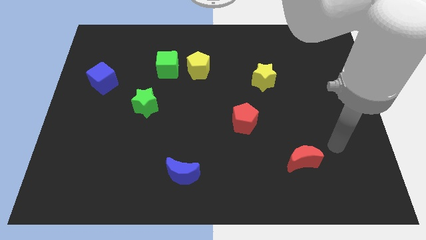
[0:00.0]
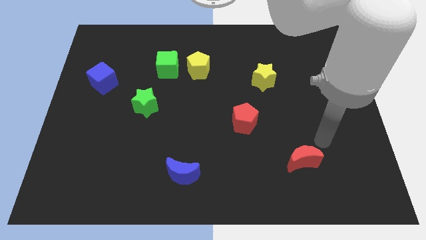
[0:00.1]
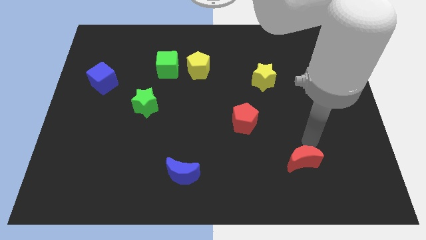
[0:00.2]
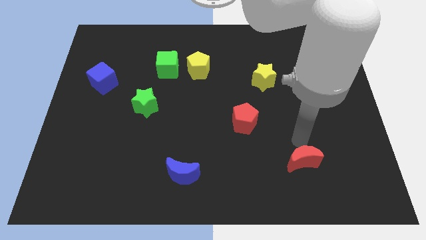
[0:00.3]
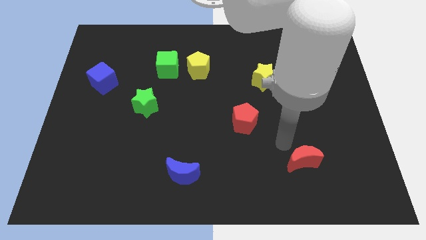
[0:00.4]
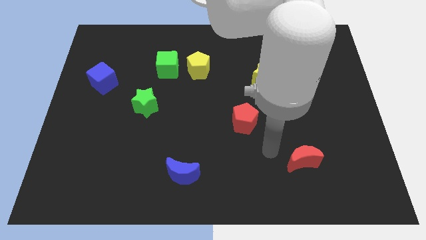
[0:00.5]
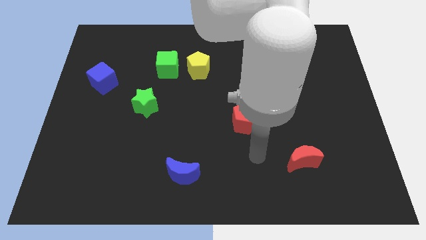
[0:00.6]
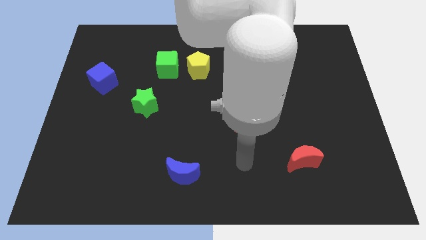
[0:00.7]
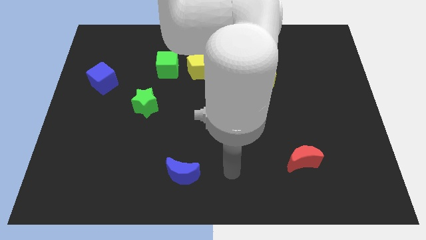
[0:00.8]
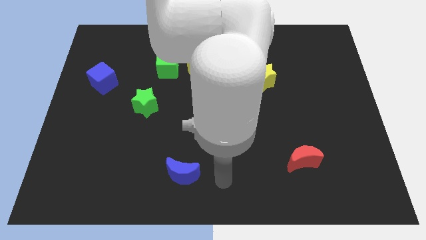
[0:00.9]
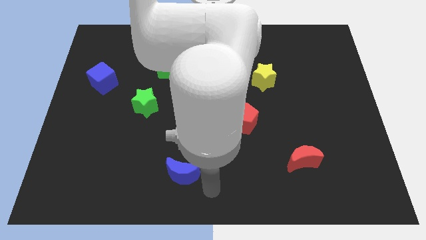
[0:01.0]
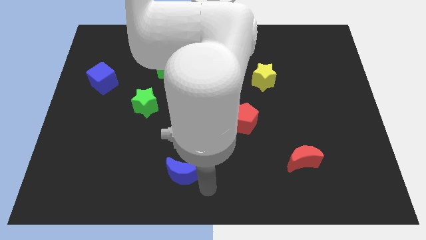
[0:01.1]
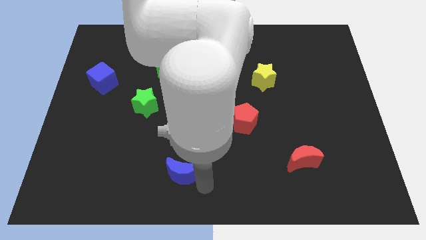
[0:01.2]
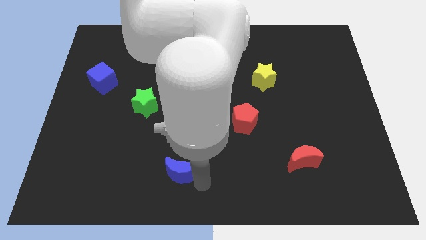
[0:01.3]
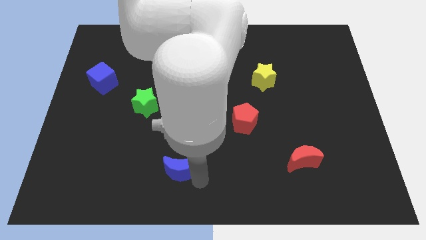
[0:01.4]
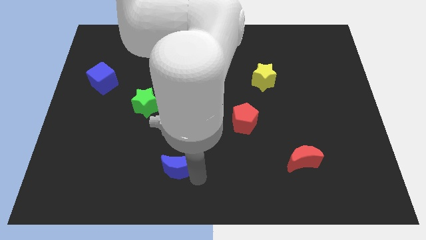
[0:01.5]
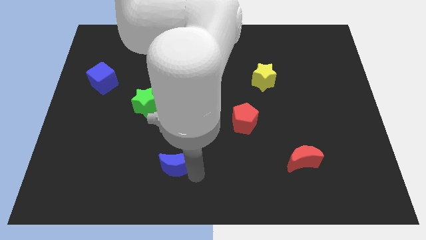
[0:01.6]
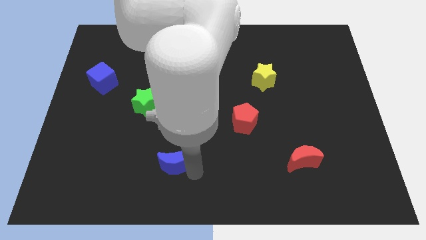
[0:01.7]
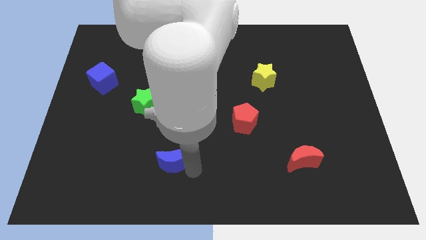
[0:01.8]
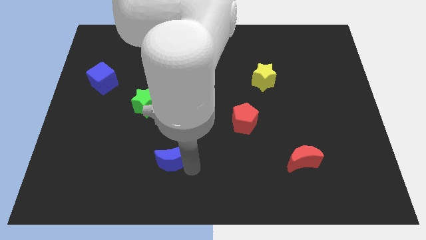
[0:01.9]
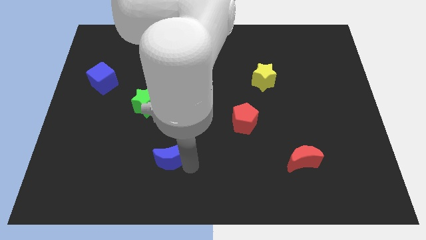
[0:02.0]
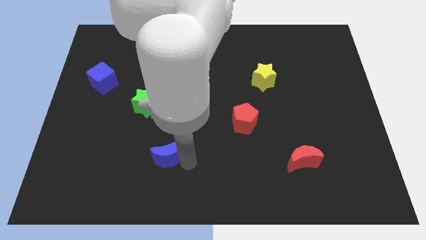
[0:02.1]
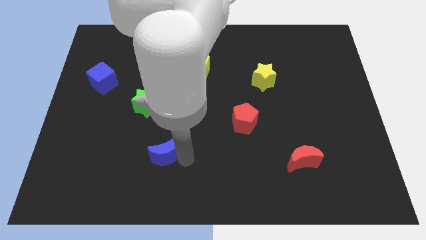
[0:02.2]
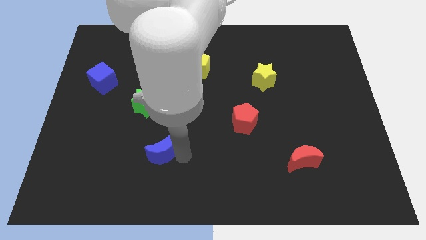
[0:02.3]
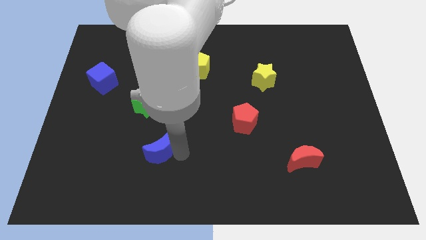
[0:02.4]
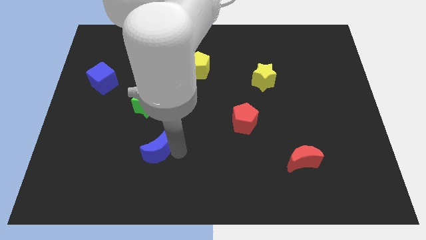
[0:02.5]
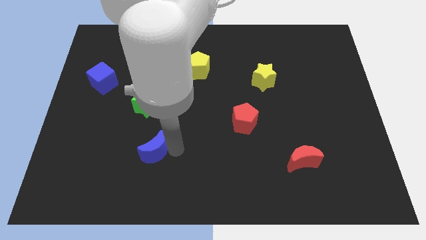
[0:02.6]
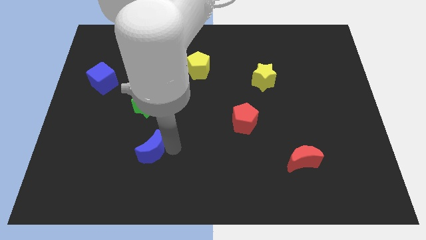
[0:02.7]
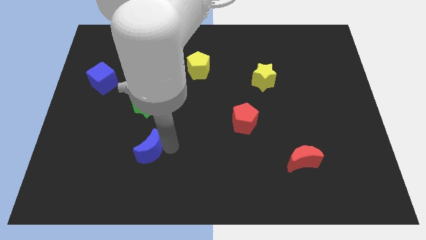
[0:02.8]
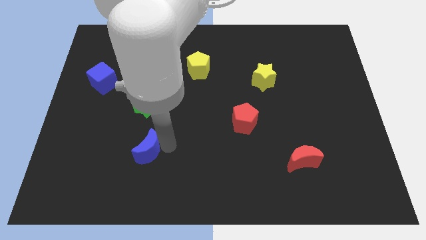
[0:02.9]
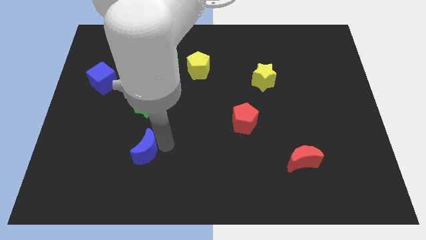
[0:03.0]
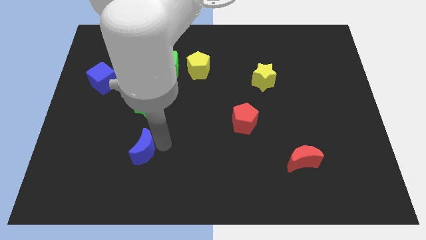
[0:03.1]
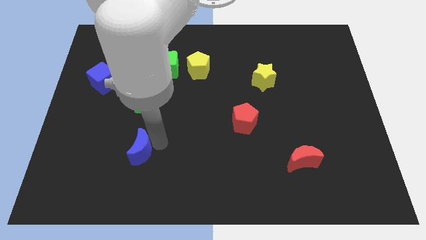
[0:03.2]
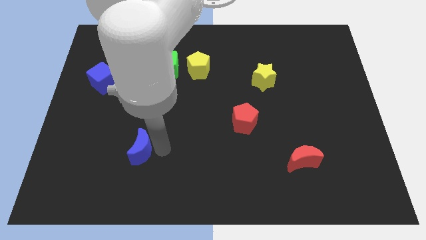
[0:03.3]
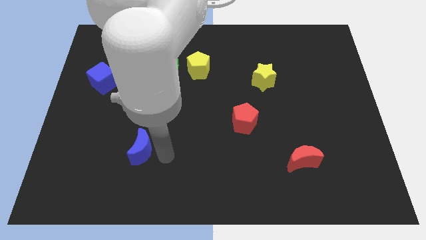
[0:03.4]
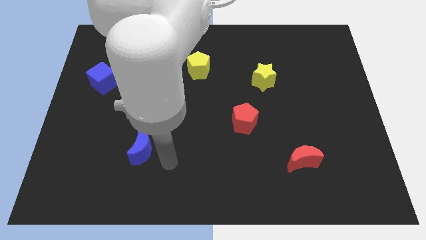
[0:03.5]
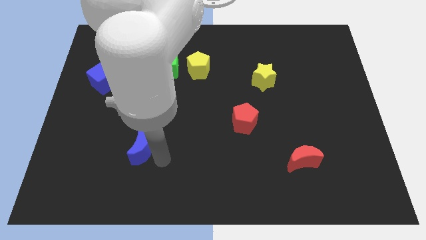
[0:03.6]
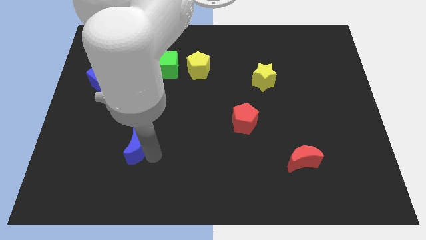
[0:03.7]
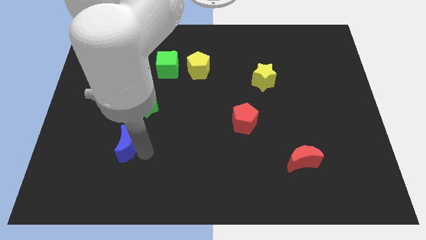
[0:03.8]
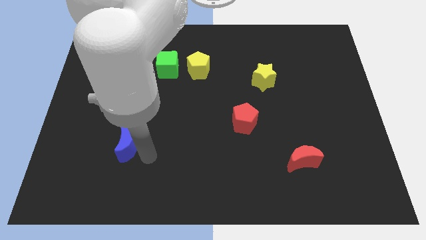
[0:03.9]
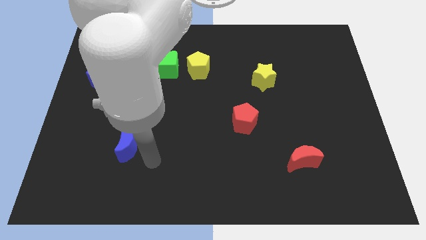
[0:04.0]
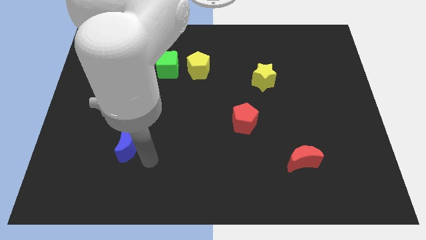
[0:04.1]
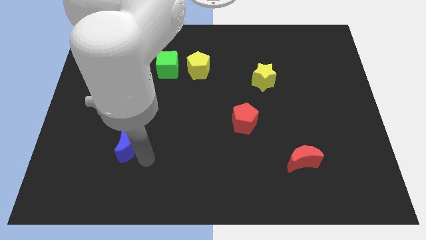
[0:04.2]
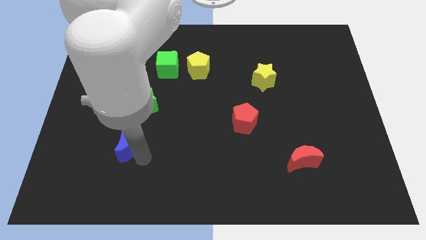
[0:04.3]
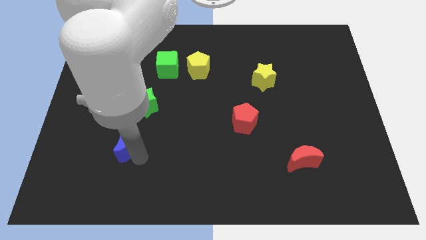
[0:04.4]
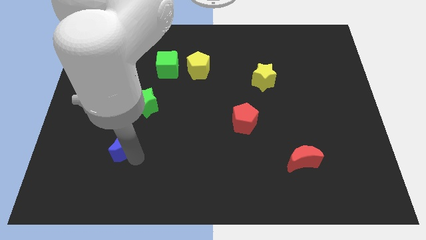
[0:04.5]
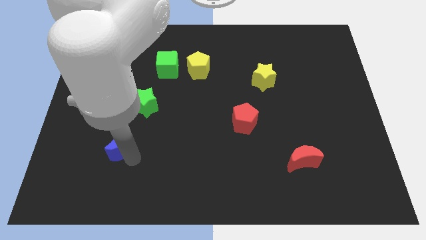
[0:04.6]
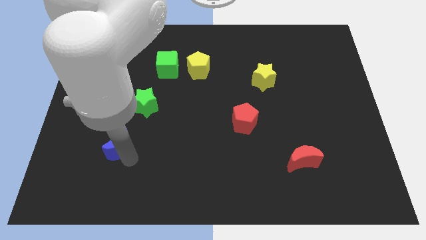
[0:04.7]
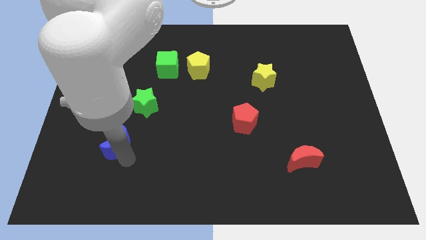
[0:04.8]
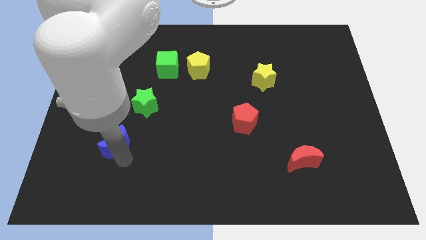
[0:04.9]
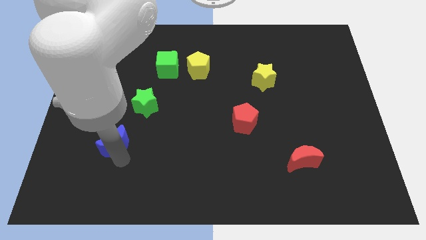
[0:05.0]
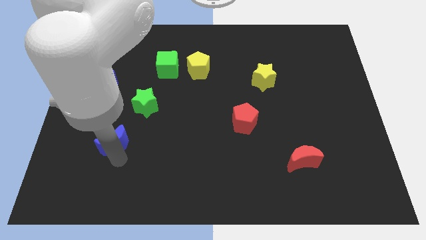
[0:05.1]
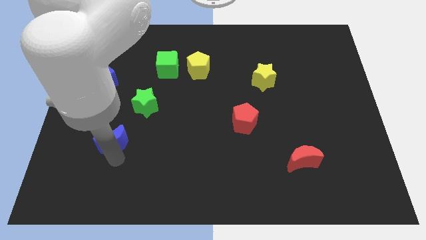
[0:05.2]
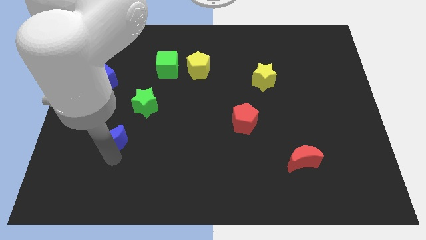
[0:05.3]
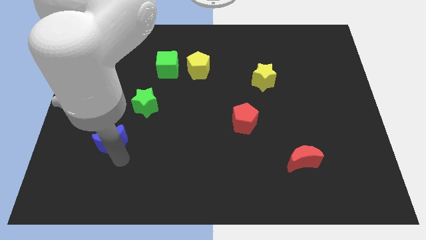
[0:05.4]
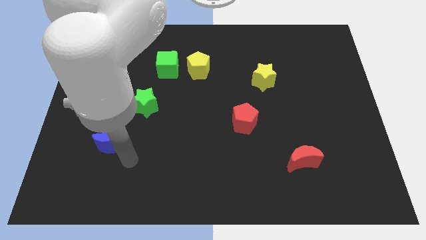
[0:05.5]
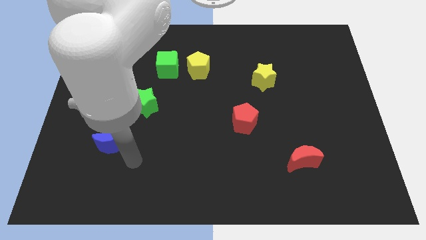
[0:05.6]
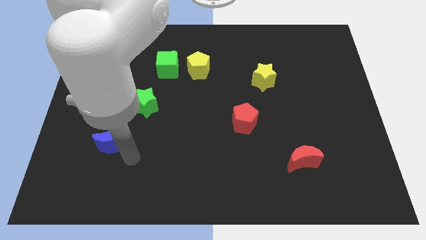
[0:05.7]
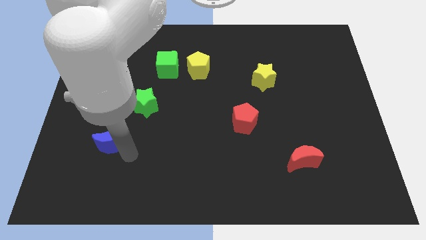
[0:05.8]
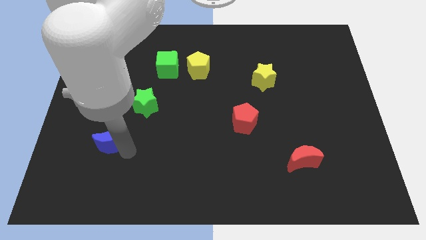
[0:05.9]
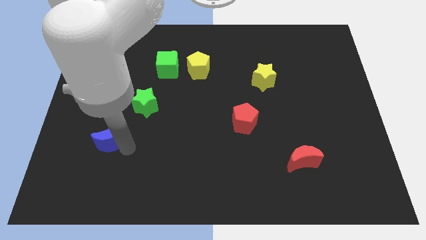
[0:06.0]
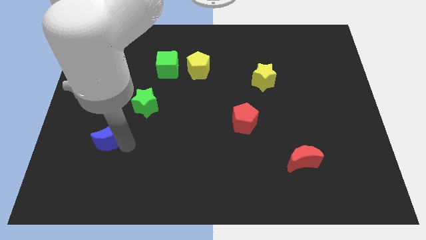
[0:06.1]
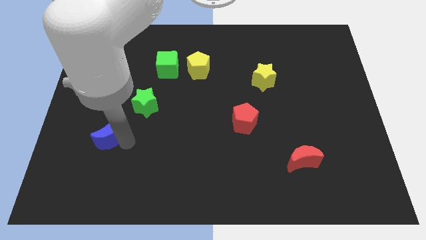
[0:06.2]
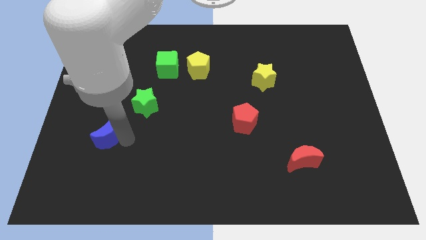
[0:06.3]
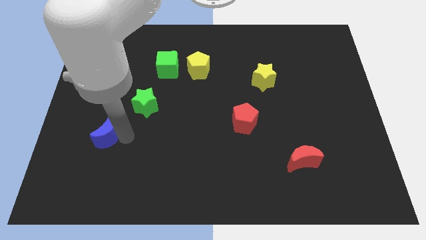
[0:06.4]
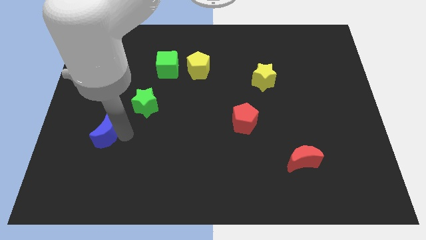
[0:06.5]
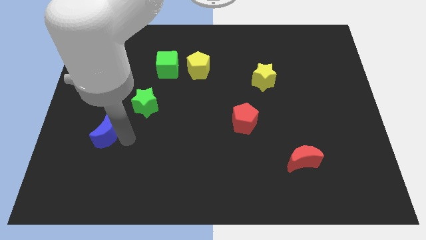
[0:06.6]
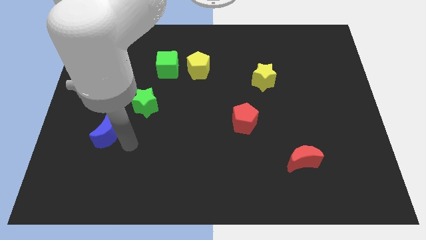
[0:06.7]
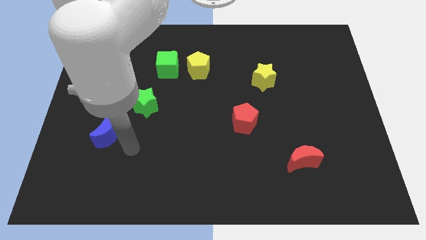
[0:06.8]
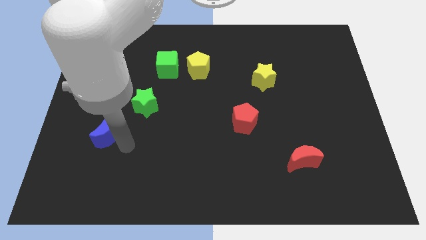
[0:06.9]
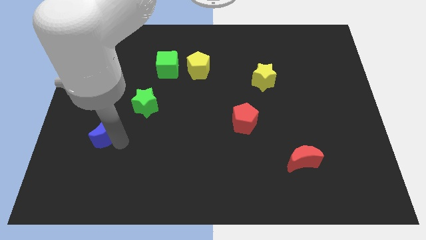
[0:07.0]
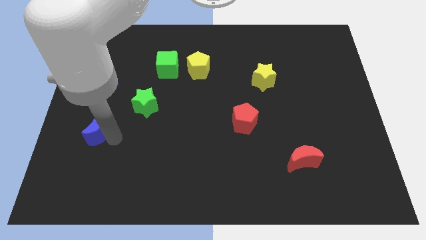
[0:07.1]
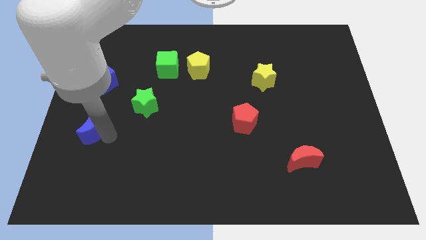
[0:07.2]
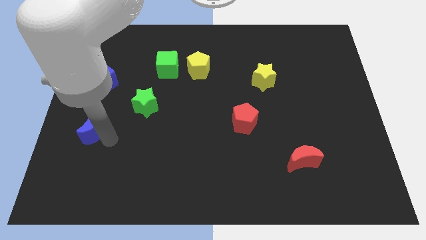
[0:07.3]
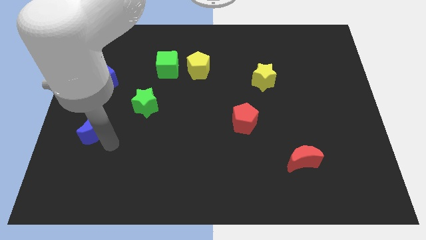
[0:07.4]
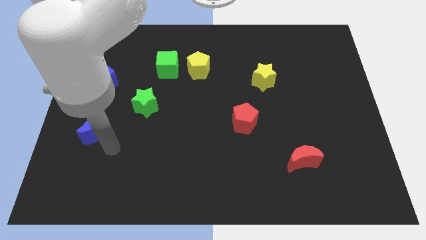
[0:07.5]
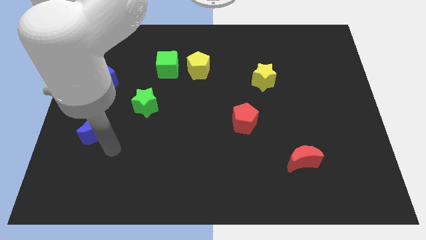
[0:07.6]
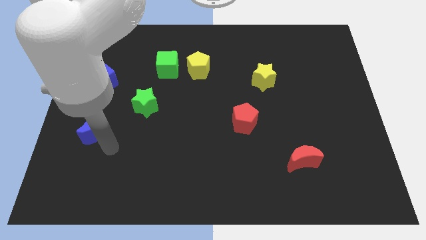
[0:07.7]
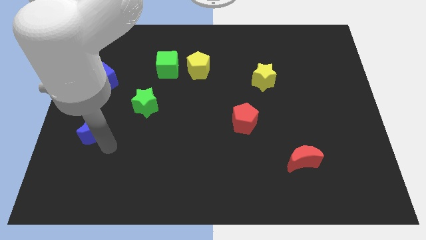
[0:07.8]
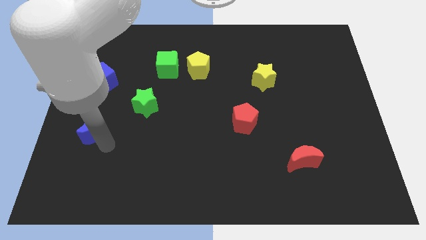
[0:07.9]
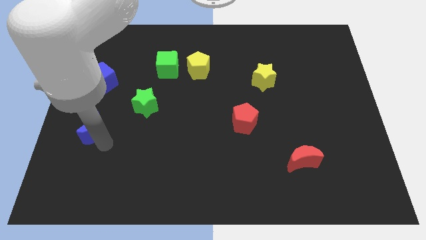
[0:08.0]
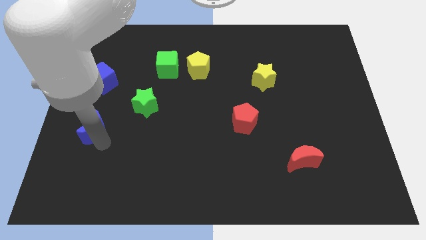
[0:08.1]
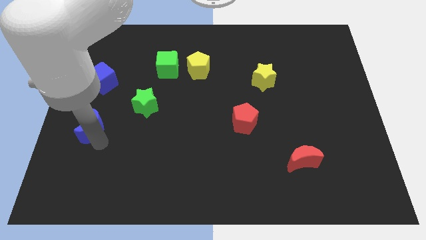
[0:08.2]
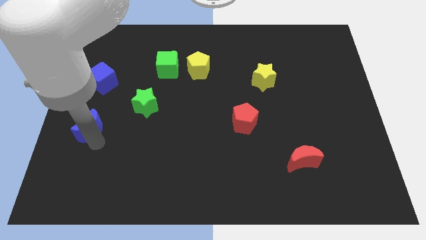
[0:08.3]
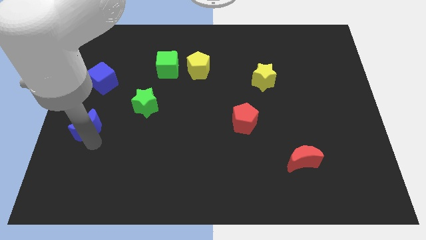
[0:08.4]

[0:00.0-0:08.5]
move the blue moon to the left side
